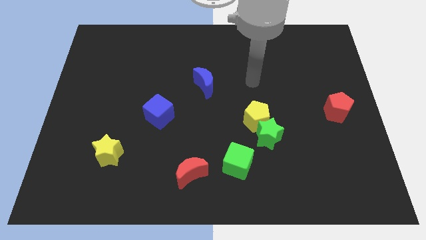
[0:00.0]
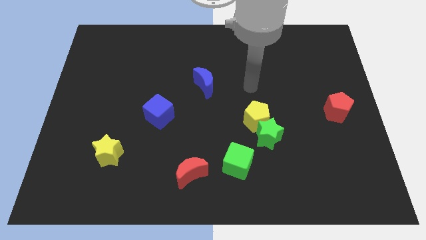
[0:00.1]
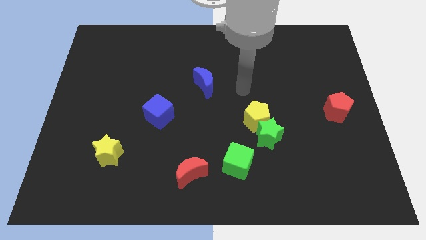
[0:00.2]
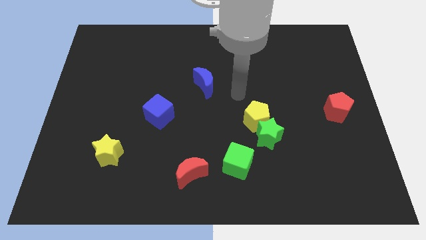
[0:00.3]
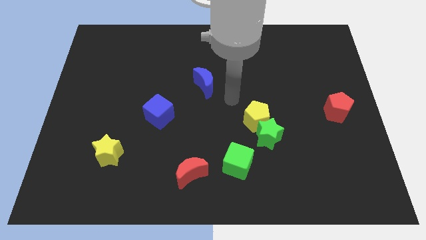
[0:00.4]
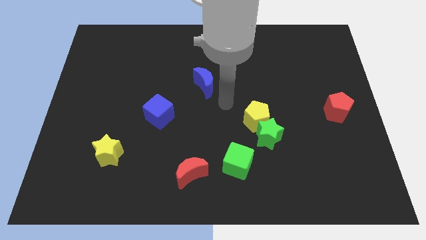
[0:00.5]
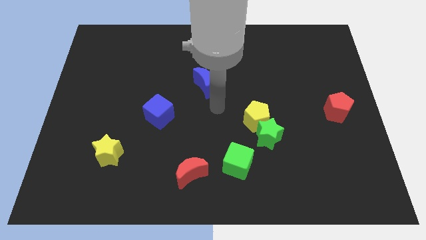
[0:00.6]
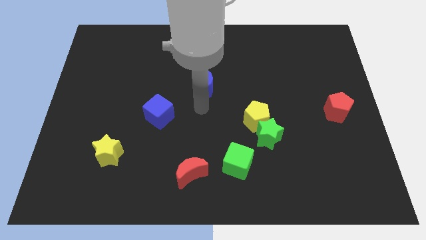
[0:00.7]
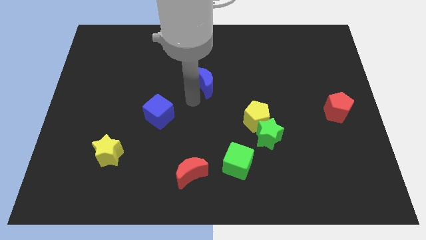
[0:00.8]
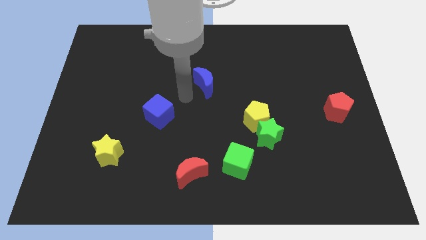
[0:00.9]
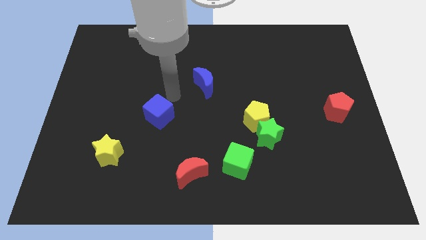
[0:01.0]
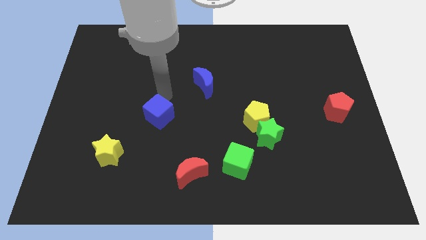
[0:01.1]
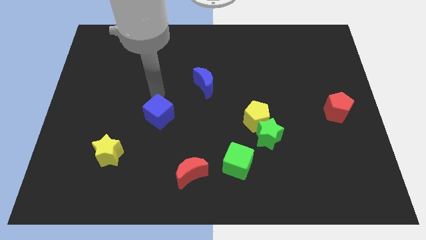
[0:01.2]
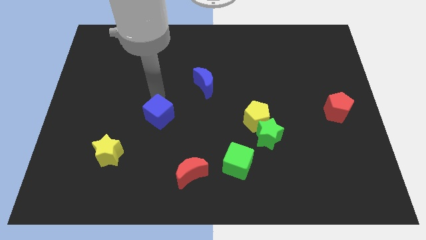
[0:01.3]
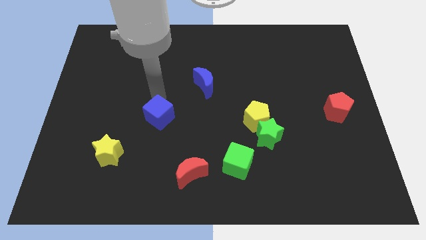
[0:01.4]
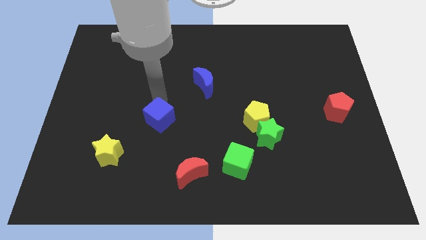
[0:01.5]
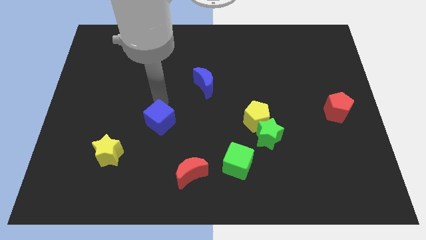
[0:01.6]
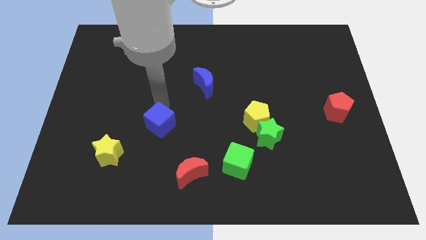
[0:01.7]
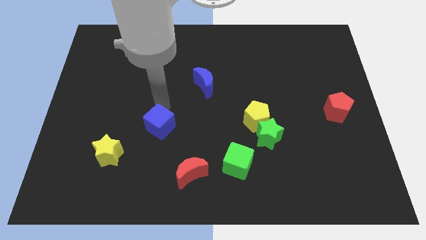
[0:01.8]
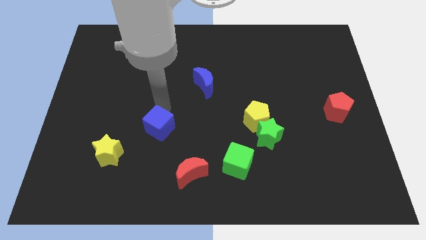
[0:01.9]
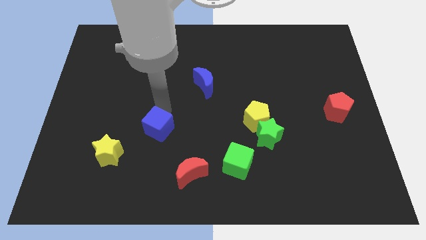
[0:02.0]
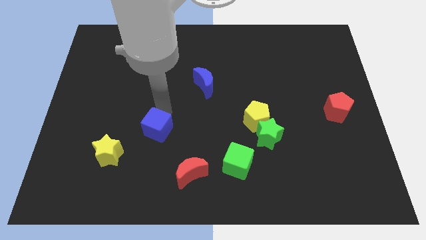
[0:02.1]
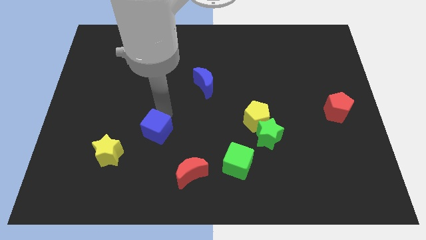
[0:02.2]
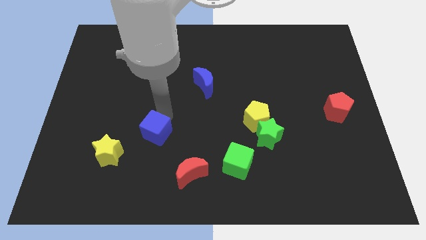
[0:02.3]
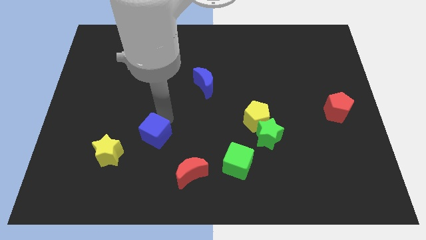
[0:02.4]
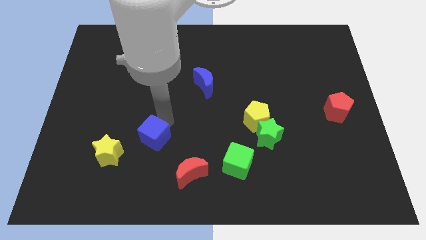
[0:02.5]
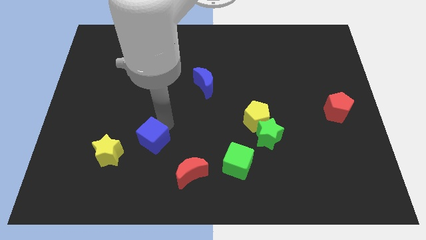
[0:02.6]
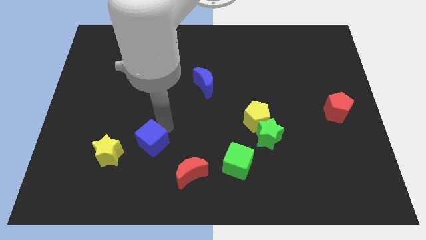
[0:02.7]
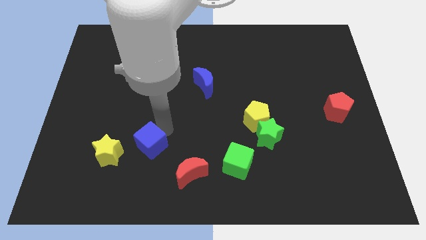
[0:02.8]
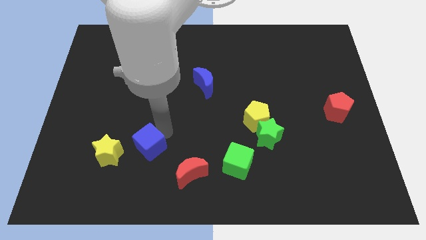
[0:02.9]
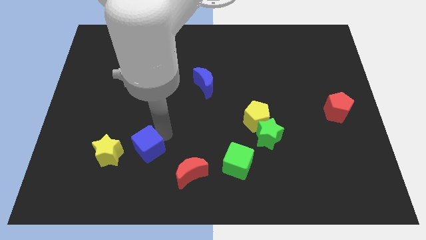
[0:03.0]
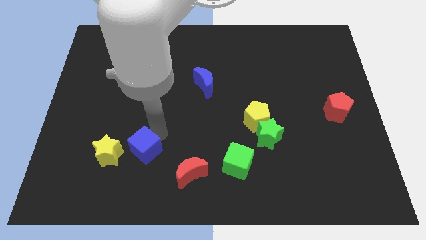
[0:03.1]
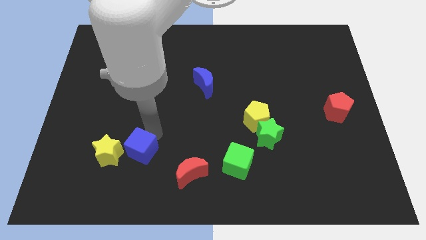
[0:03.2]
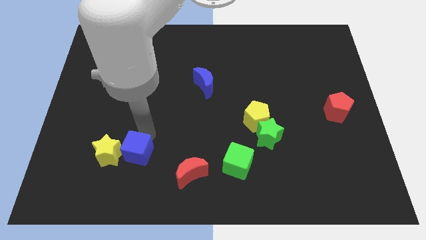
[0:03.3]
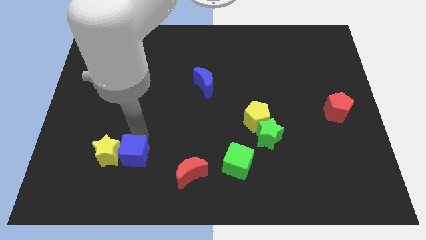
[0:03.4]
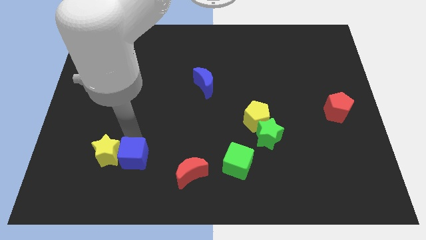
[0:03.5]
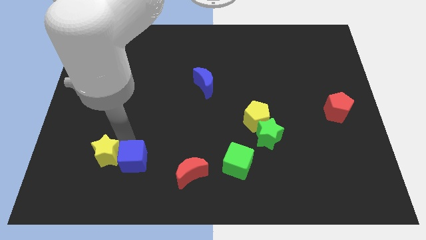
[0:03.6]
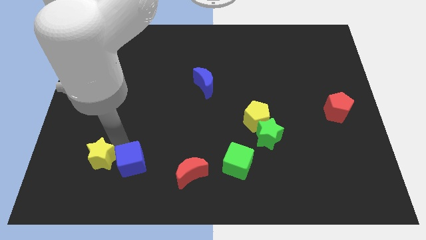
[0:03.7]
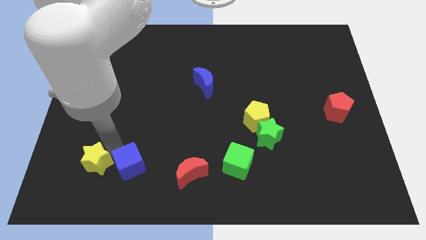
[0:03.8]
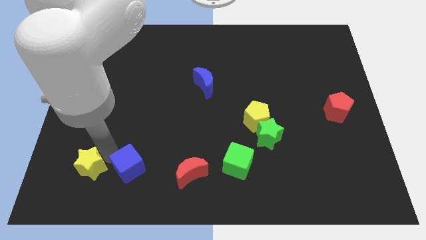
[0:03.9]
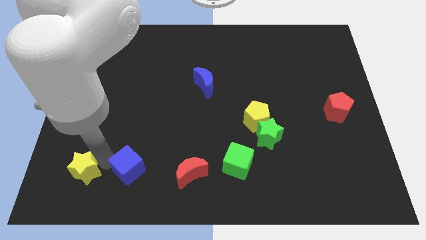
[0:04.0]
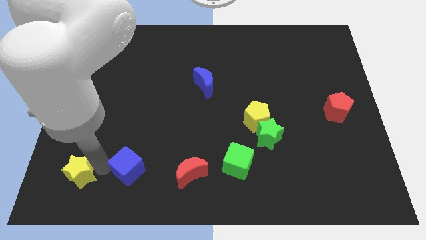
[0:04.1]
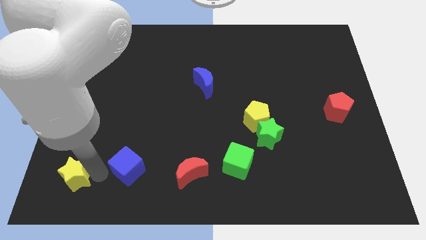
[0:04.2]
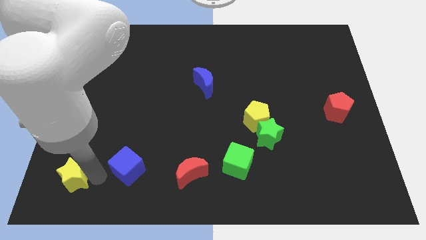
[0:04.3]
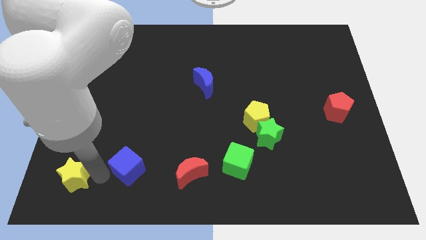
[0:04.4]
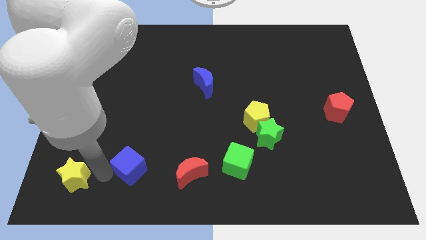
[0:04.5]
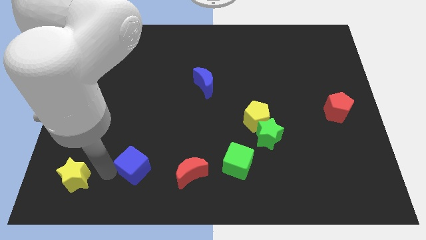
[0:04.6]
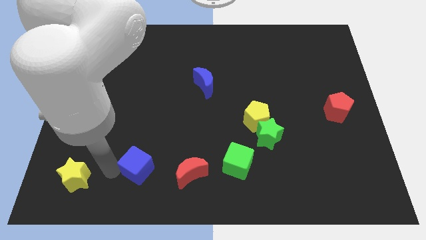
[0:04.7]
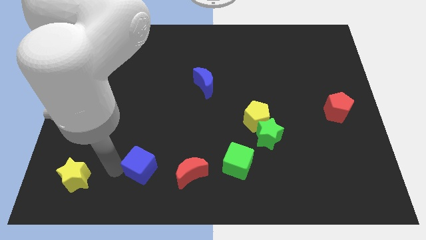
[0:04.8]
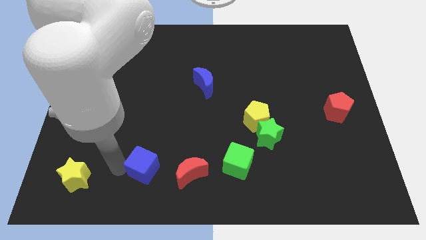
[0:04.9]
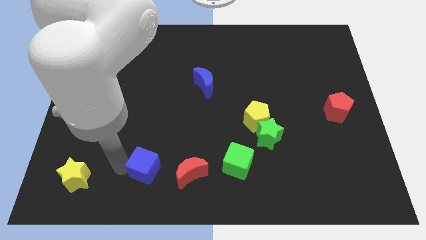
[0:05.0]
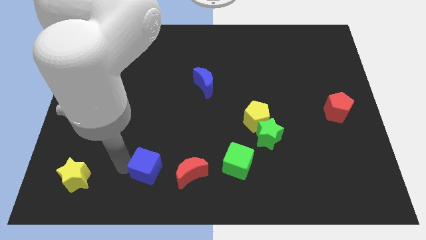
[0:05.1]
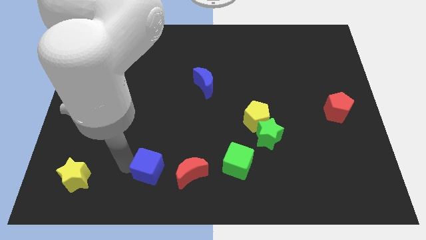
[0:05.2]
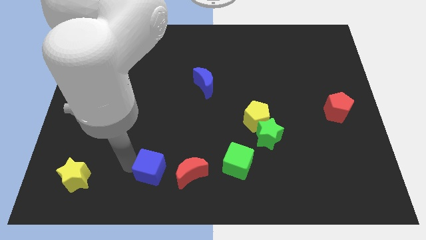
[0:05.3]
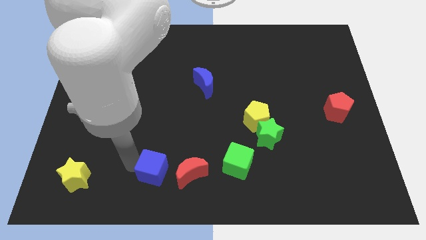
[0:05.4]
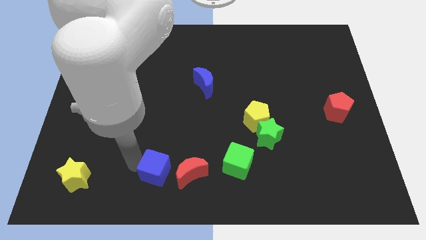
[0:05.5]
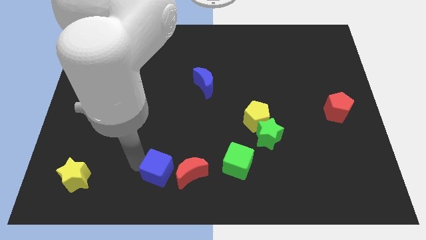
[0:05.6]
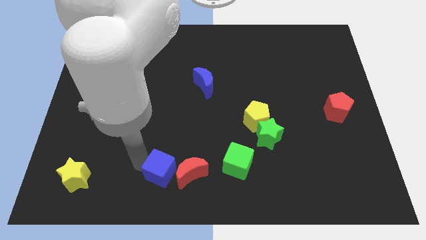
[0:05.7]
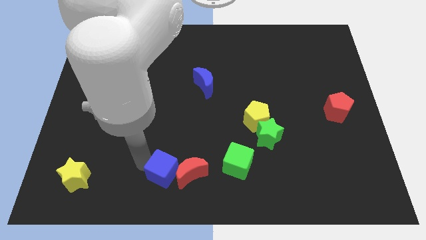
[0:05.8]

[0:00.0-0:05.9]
slide the blue cube to the bottom side
